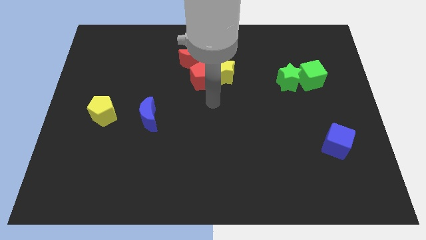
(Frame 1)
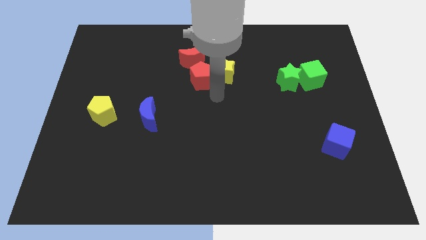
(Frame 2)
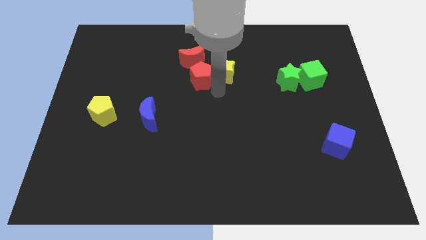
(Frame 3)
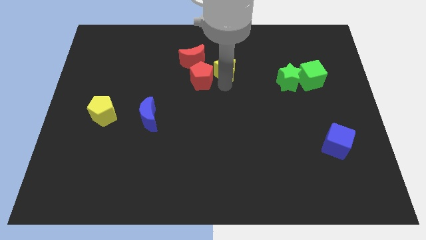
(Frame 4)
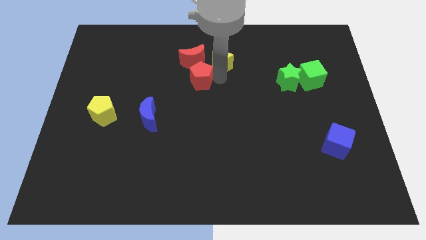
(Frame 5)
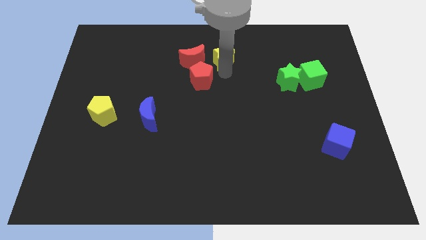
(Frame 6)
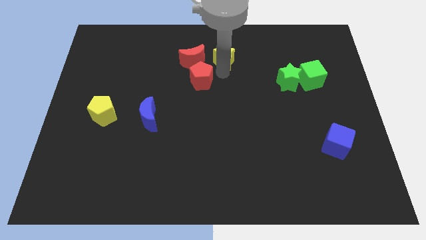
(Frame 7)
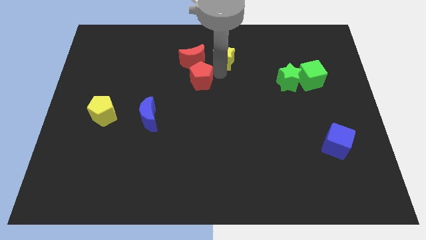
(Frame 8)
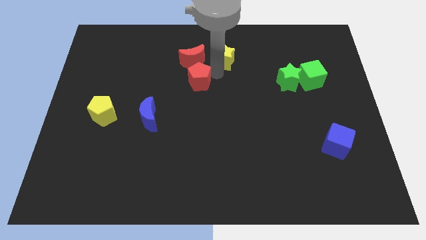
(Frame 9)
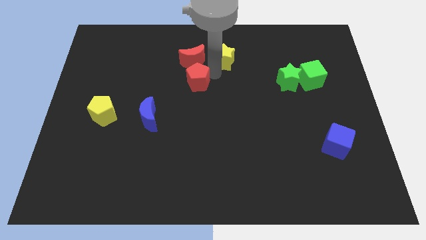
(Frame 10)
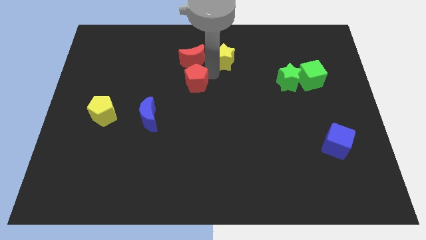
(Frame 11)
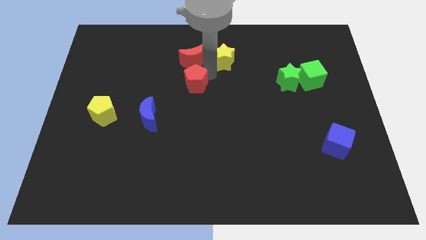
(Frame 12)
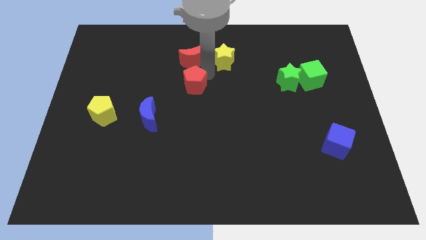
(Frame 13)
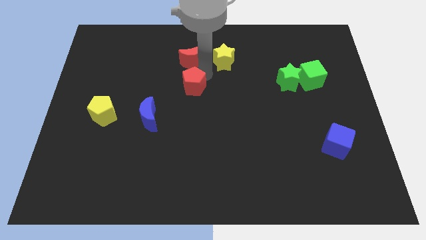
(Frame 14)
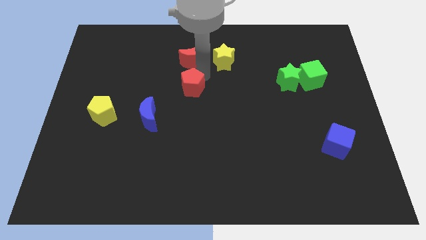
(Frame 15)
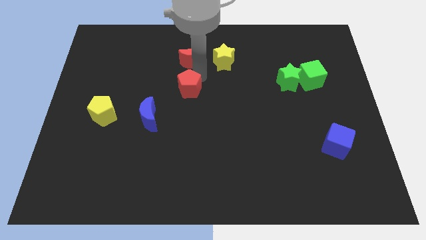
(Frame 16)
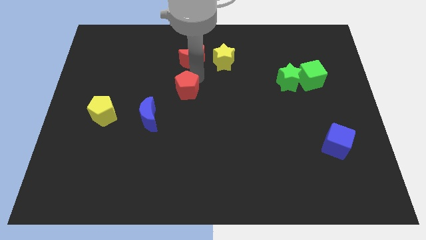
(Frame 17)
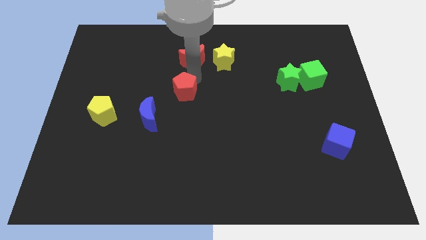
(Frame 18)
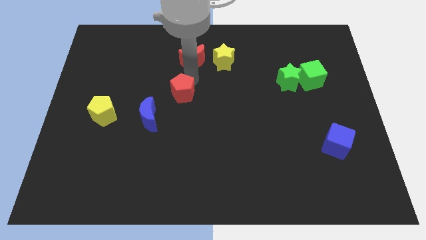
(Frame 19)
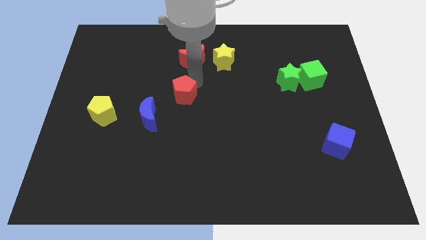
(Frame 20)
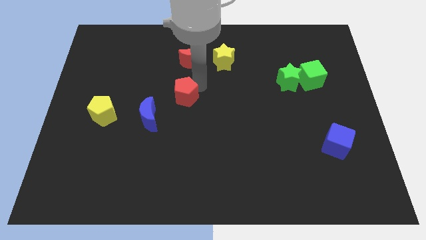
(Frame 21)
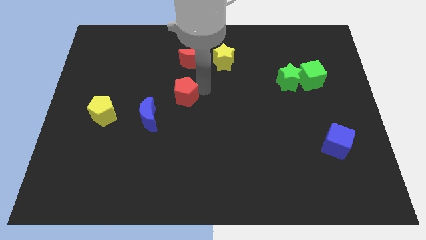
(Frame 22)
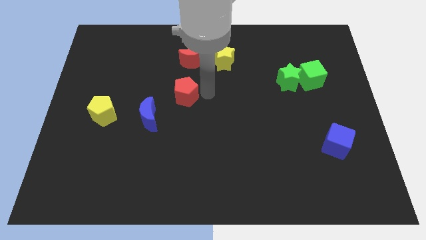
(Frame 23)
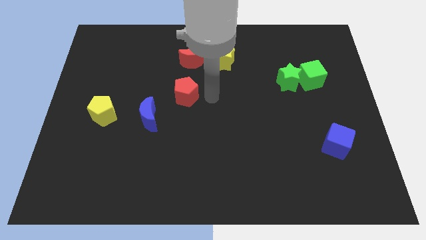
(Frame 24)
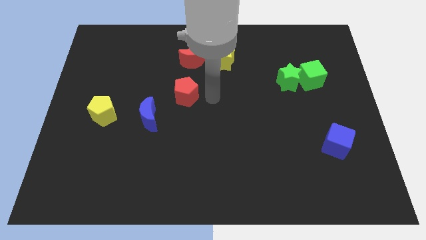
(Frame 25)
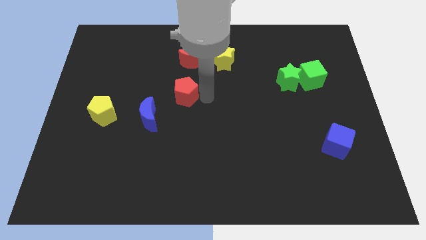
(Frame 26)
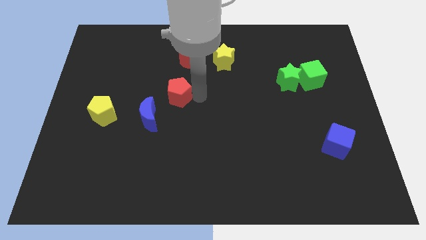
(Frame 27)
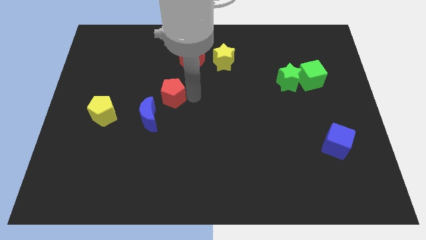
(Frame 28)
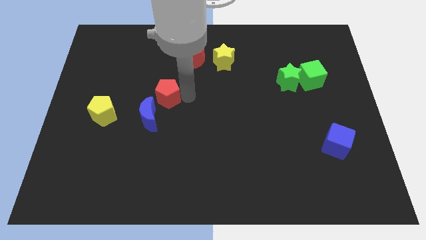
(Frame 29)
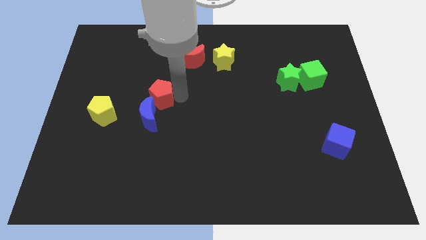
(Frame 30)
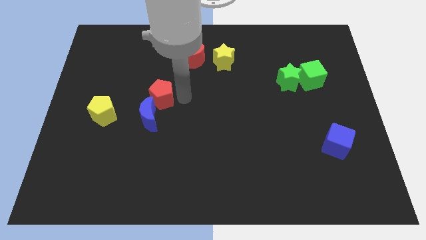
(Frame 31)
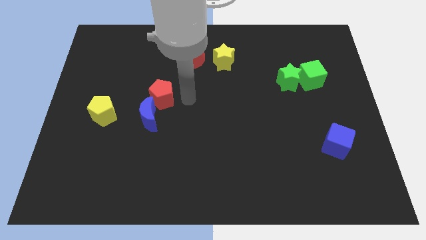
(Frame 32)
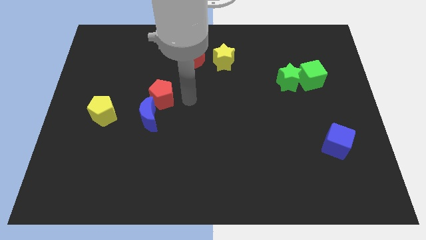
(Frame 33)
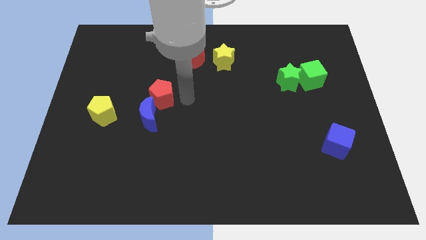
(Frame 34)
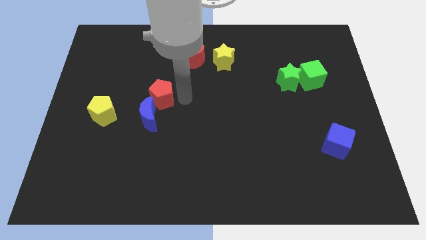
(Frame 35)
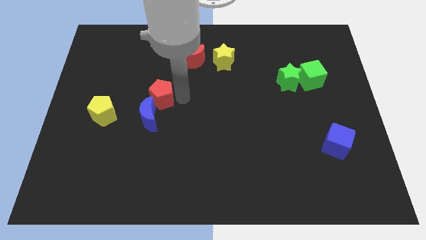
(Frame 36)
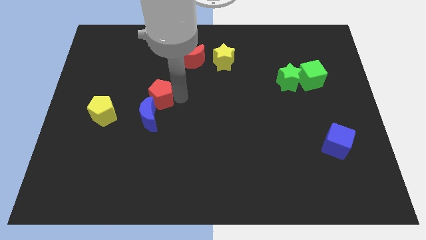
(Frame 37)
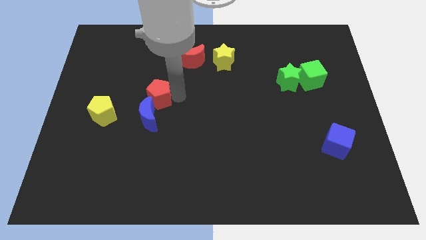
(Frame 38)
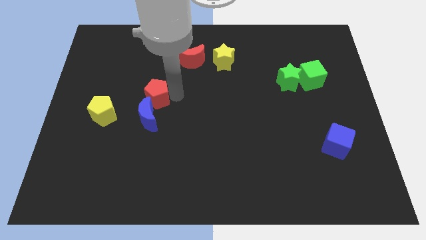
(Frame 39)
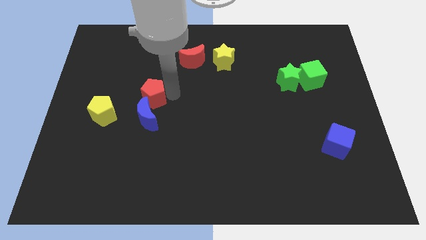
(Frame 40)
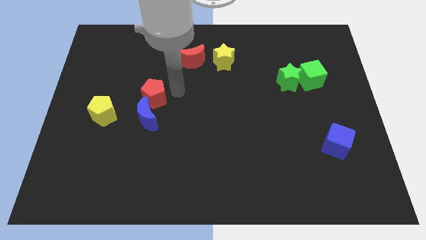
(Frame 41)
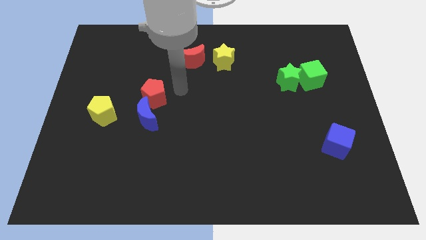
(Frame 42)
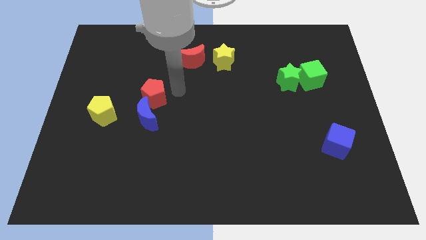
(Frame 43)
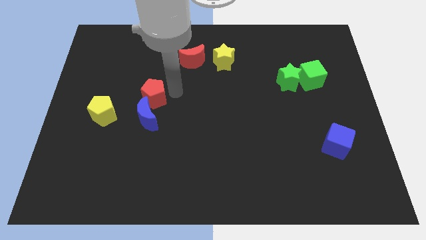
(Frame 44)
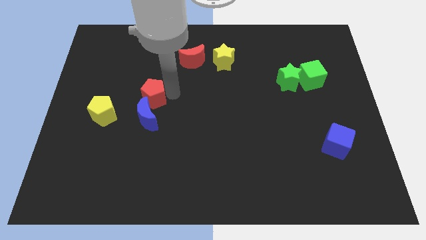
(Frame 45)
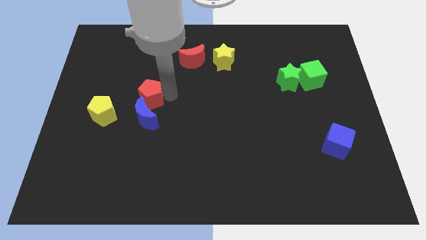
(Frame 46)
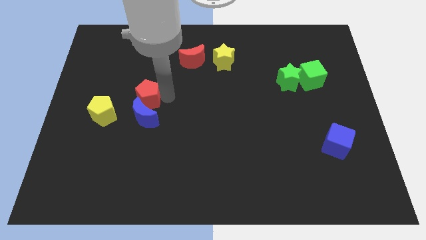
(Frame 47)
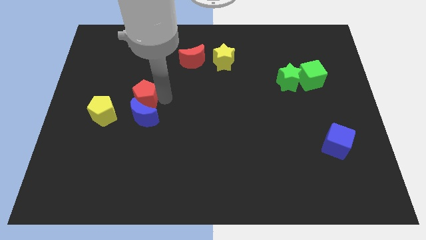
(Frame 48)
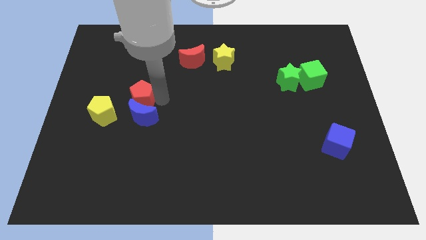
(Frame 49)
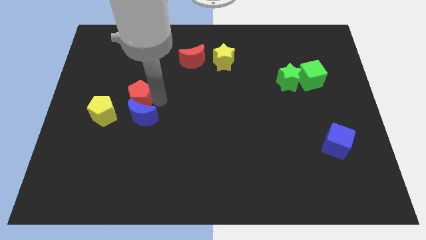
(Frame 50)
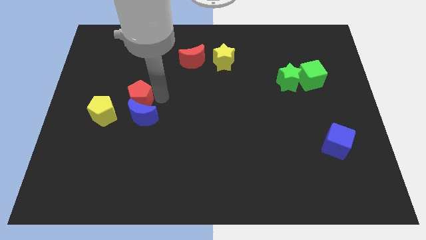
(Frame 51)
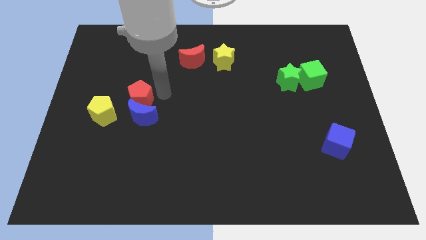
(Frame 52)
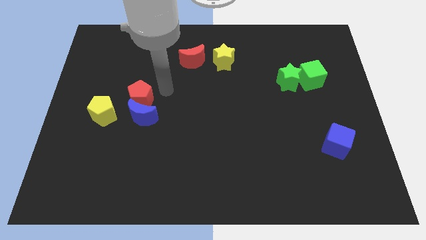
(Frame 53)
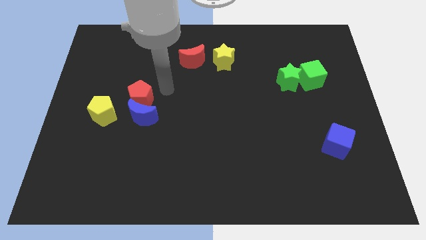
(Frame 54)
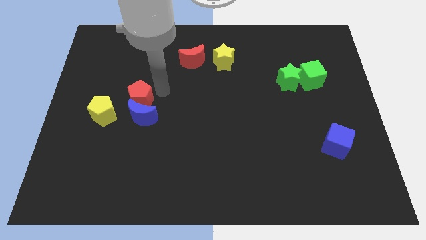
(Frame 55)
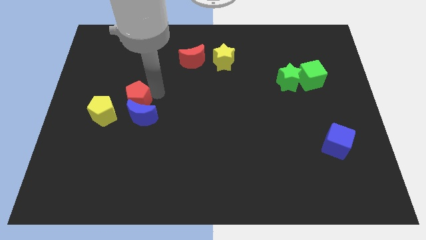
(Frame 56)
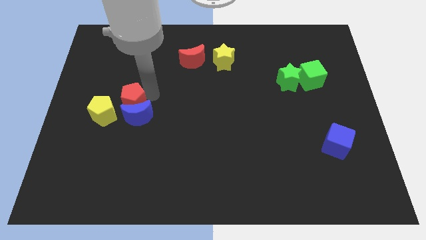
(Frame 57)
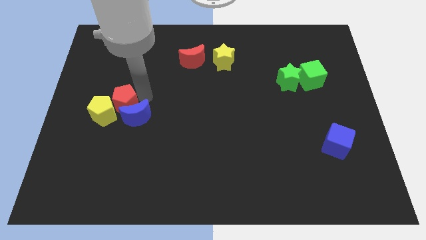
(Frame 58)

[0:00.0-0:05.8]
push the red pentagon towards the yellow pentagon

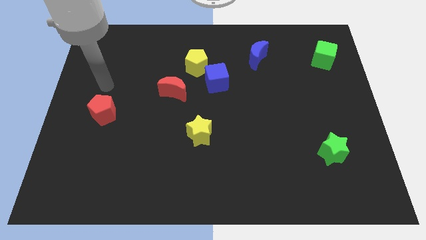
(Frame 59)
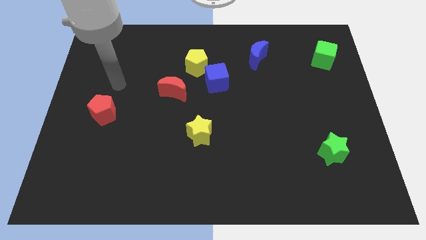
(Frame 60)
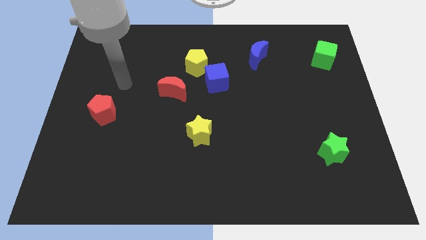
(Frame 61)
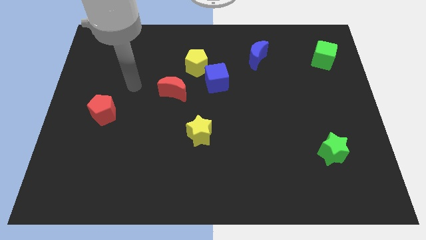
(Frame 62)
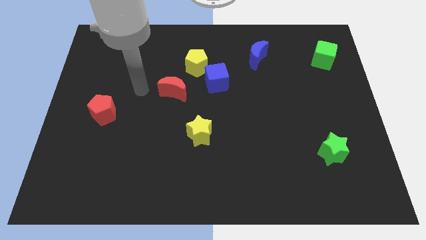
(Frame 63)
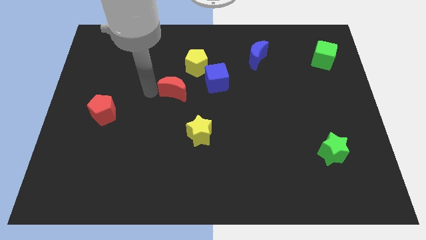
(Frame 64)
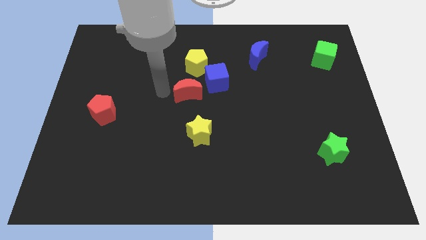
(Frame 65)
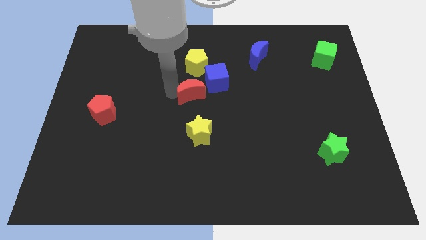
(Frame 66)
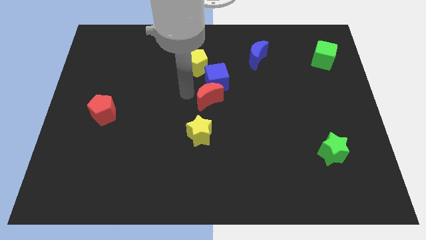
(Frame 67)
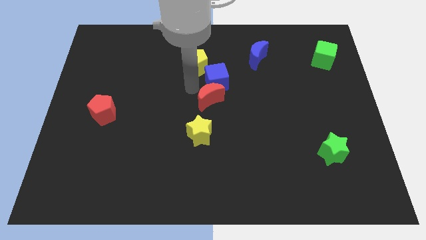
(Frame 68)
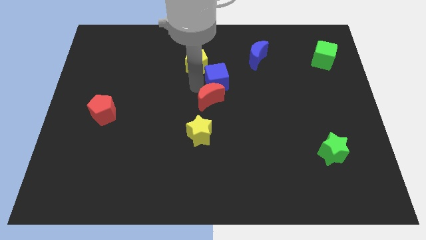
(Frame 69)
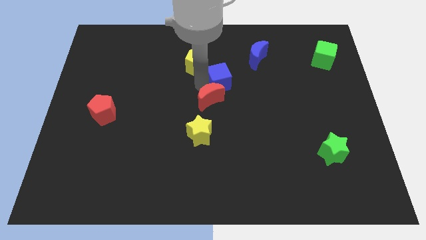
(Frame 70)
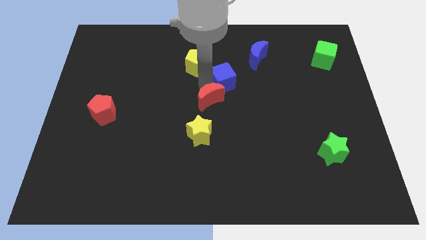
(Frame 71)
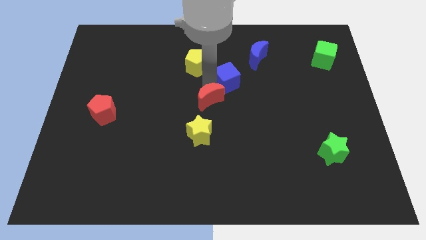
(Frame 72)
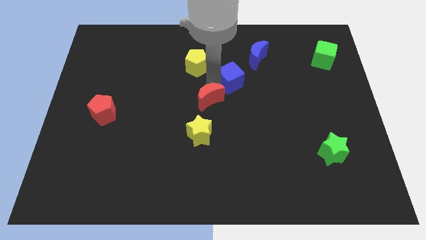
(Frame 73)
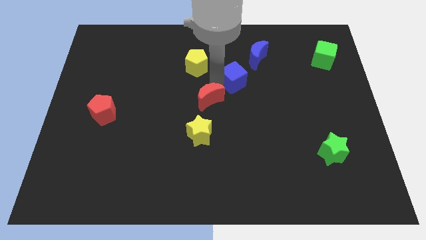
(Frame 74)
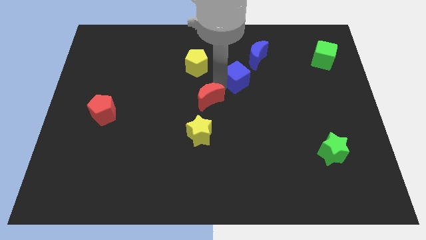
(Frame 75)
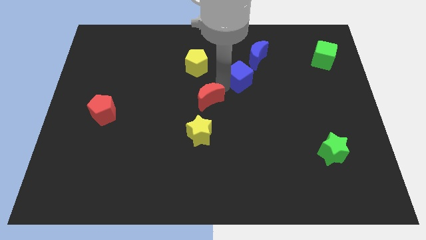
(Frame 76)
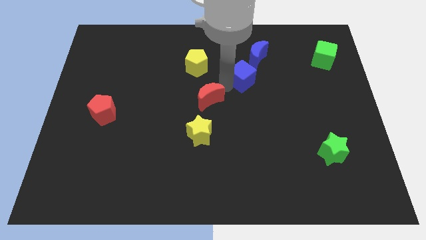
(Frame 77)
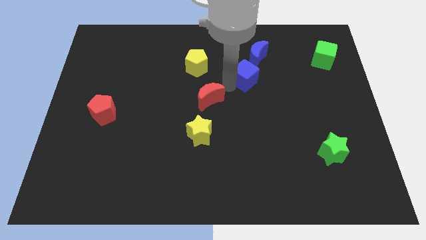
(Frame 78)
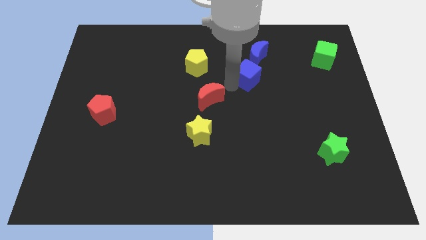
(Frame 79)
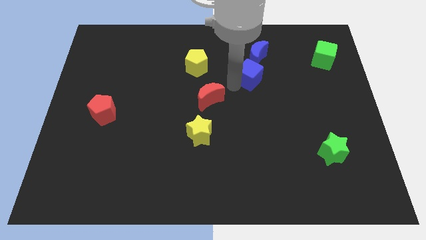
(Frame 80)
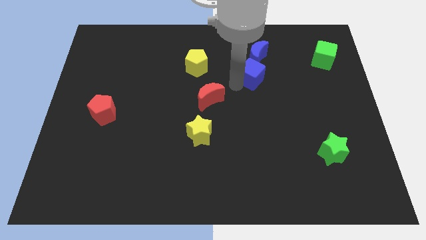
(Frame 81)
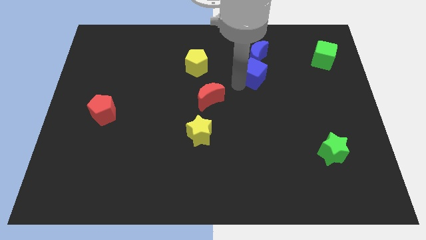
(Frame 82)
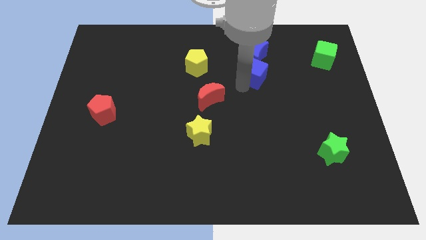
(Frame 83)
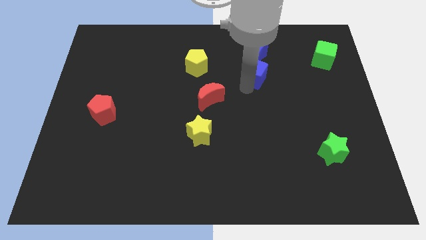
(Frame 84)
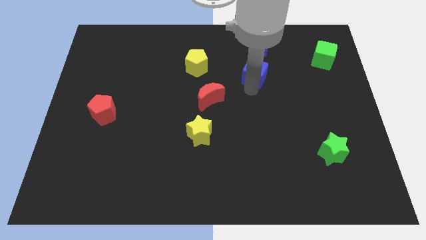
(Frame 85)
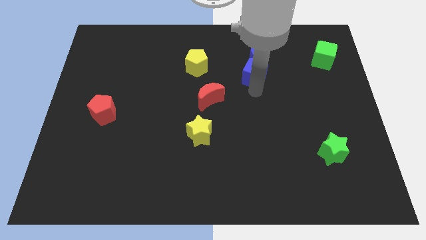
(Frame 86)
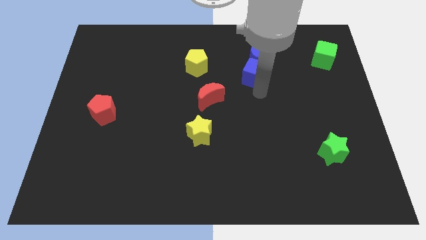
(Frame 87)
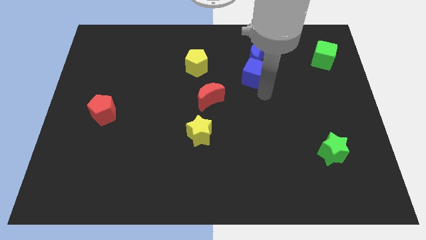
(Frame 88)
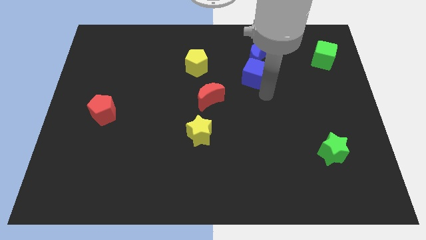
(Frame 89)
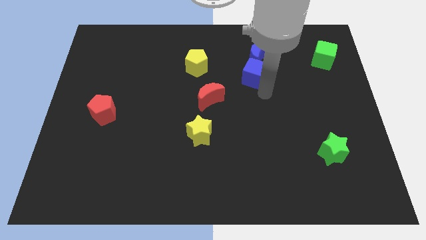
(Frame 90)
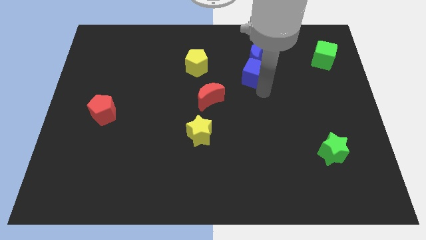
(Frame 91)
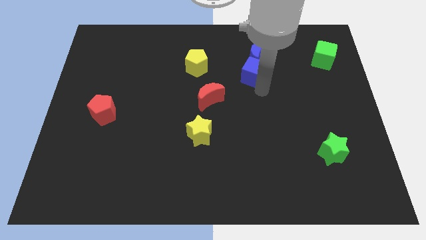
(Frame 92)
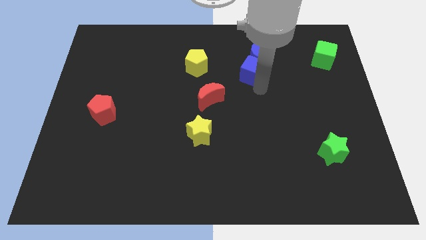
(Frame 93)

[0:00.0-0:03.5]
slide the blue cube towards the blue moon
